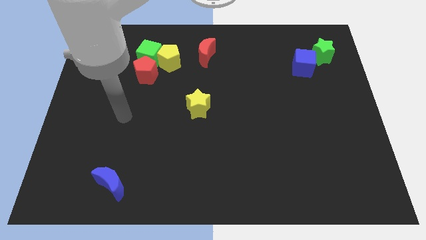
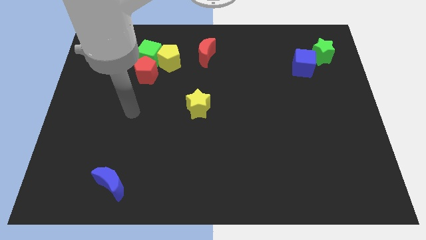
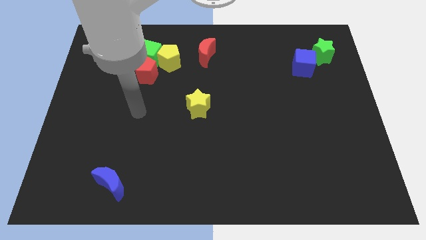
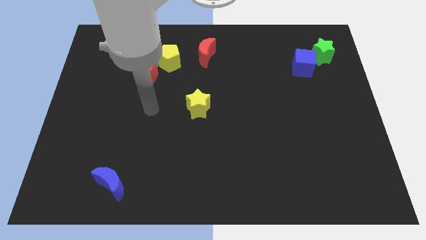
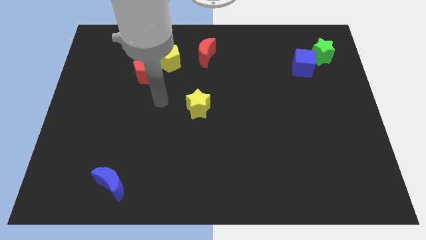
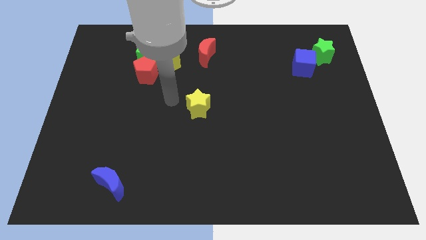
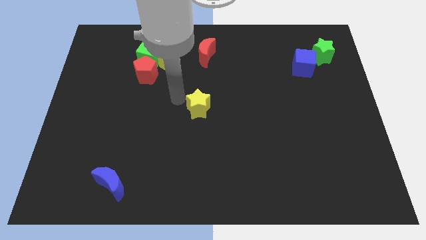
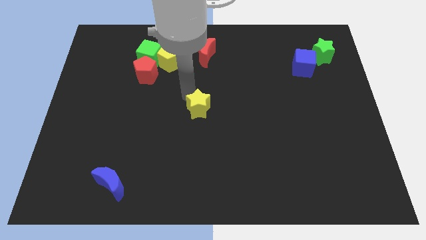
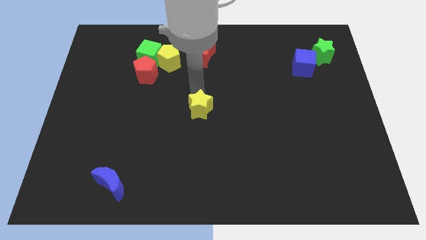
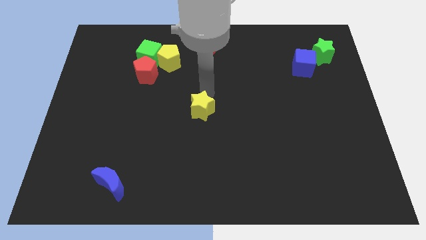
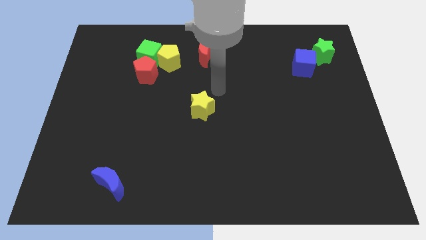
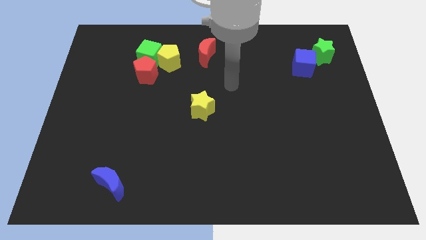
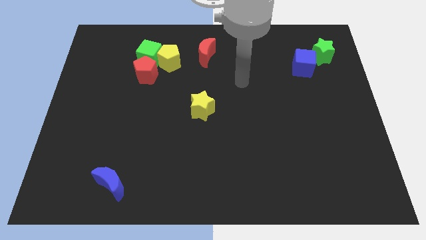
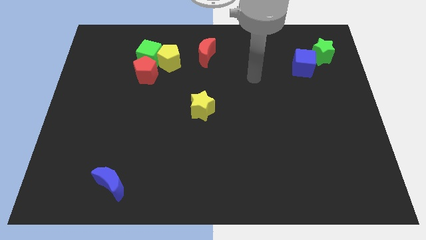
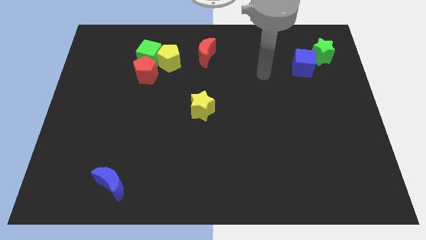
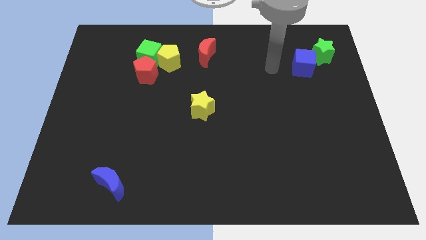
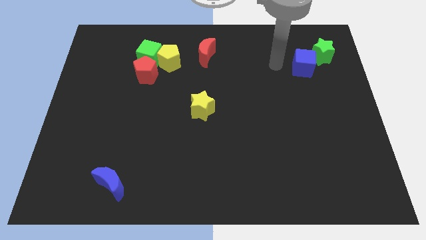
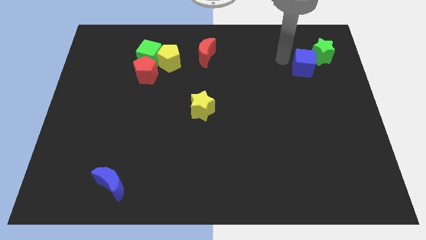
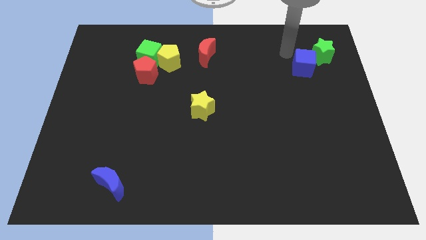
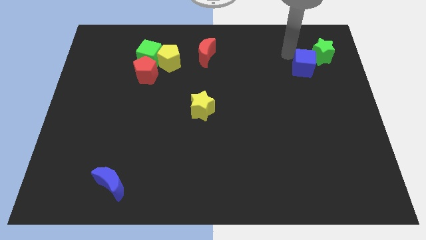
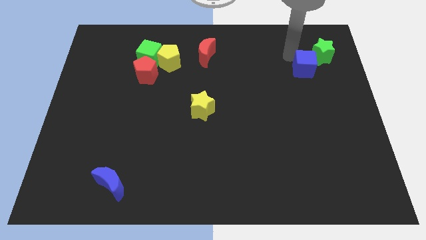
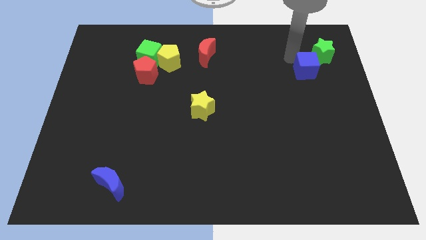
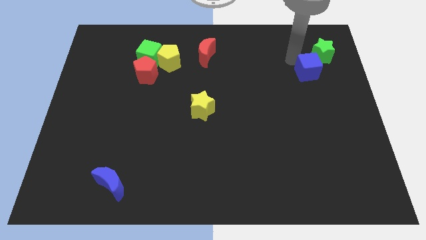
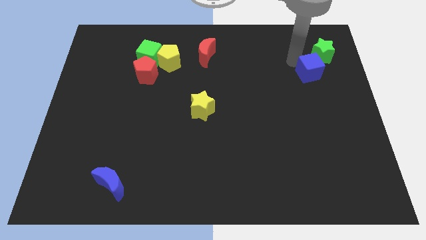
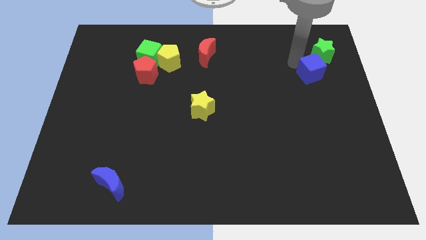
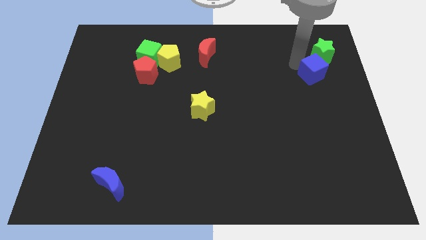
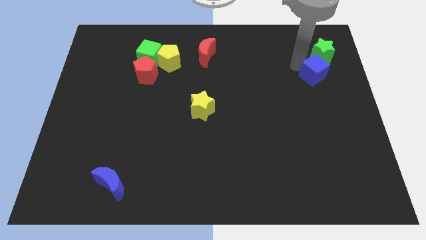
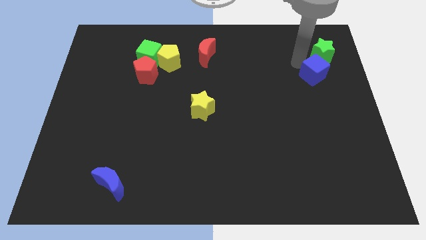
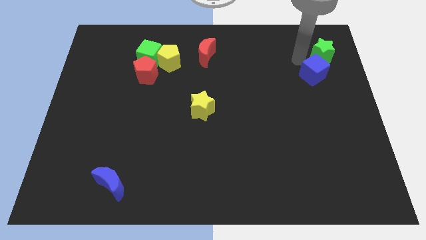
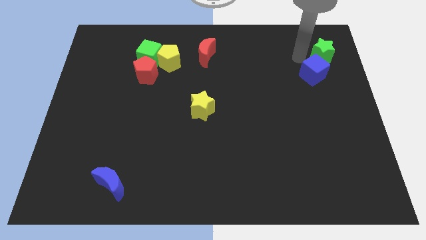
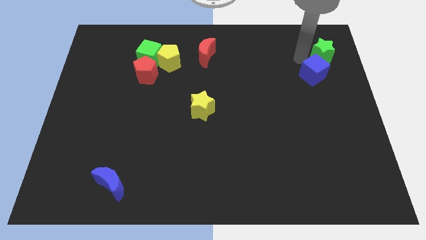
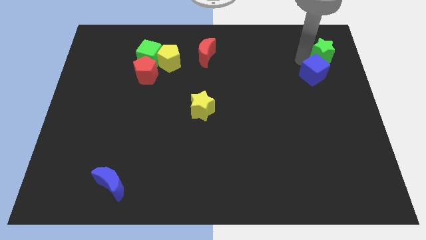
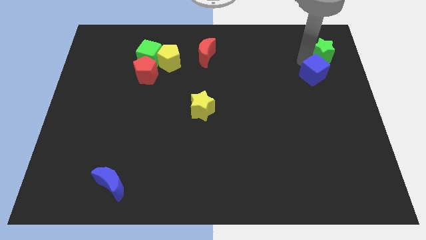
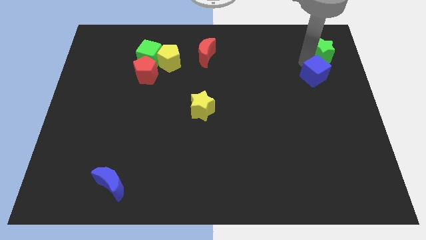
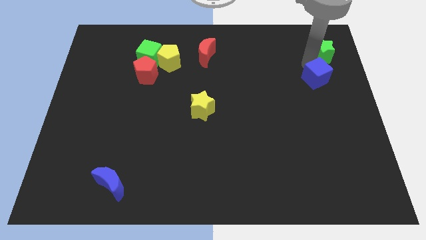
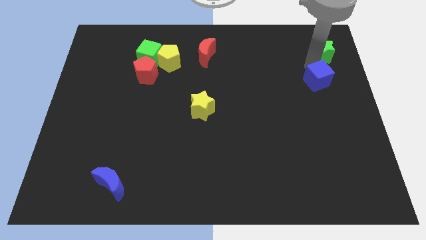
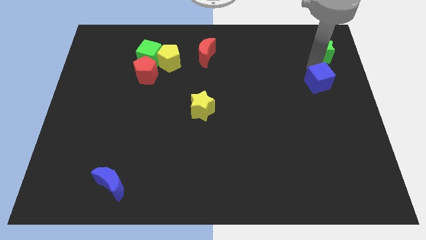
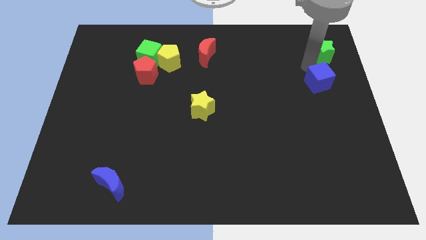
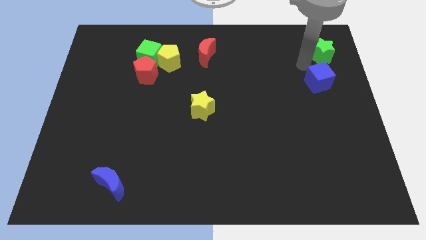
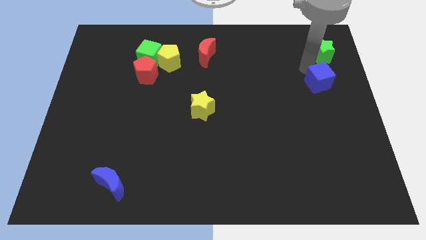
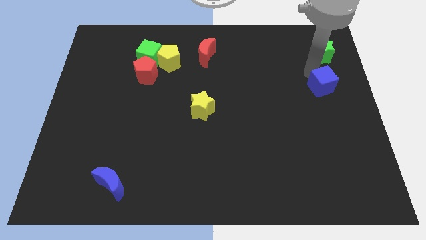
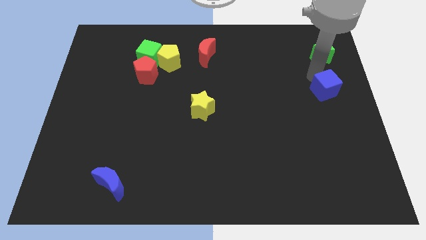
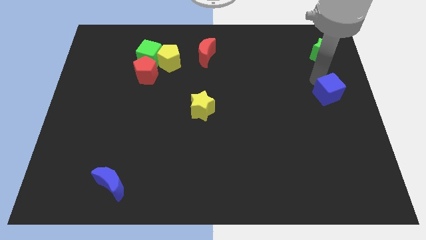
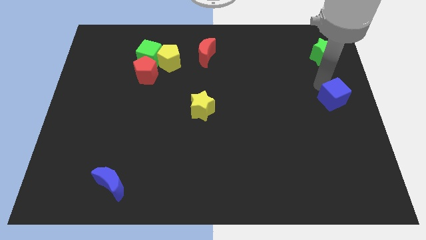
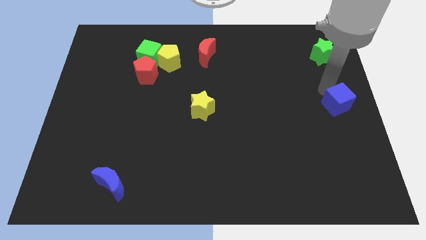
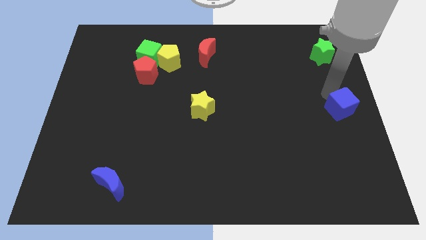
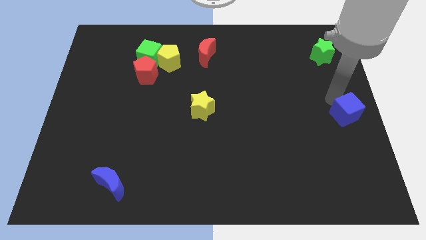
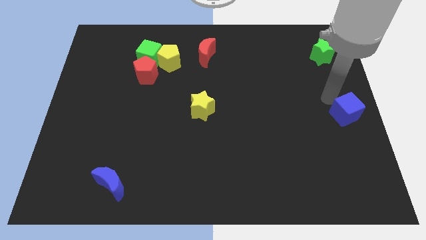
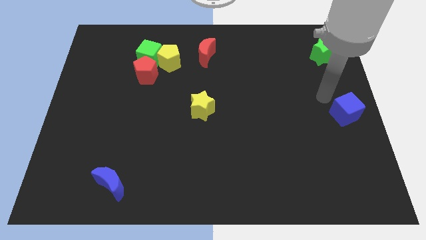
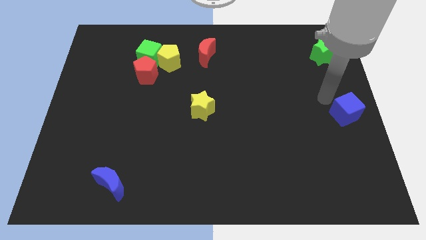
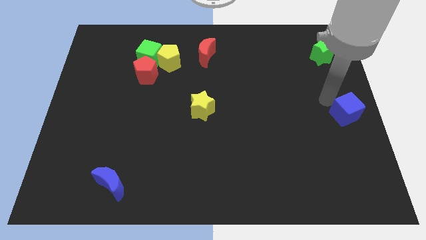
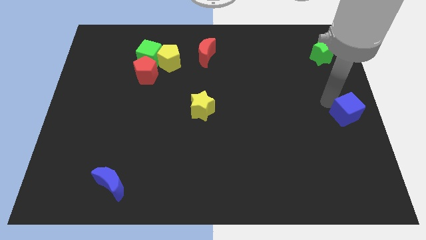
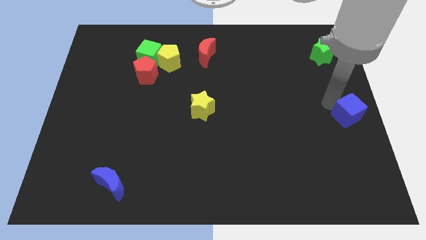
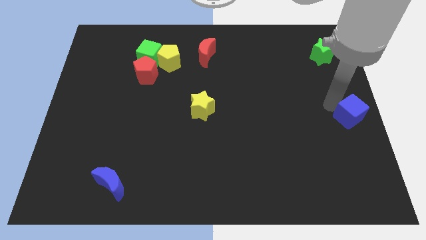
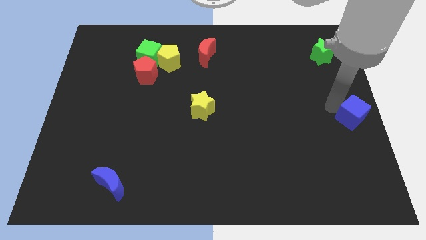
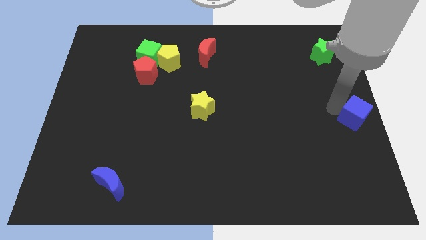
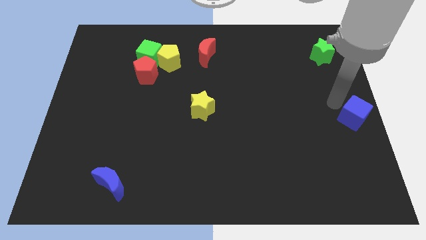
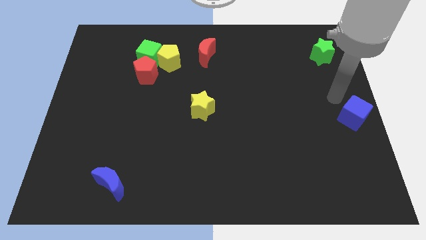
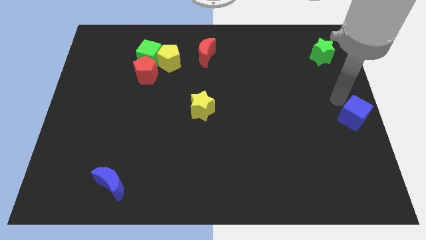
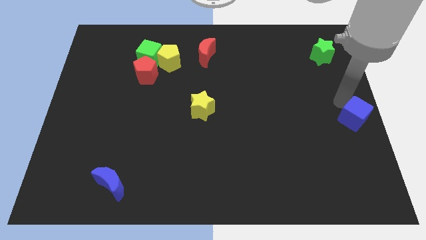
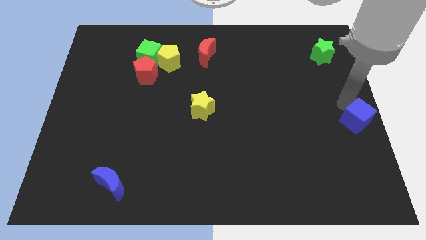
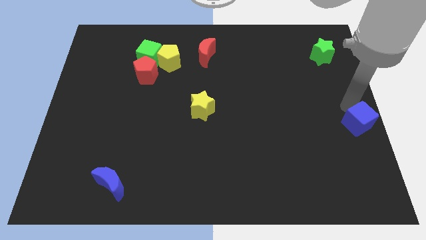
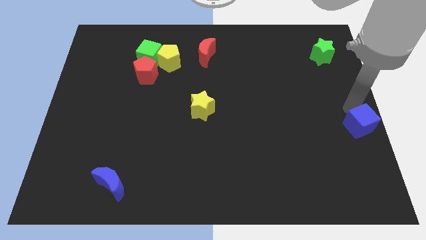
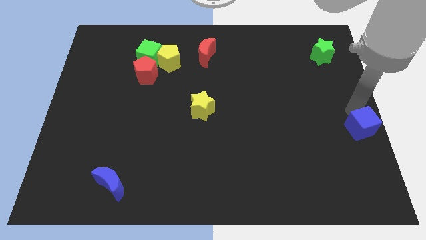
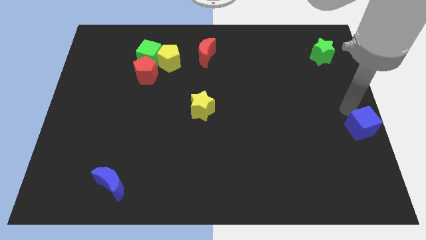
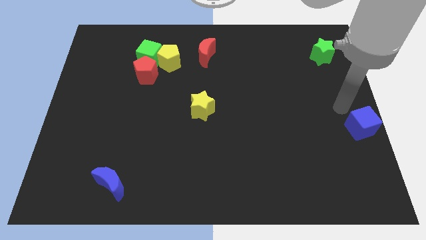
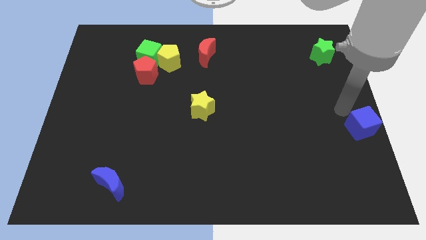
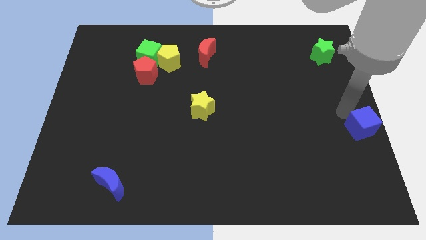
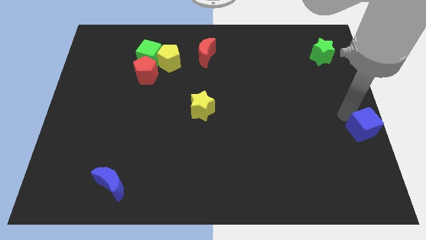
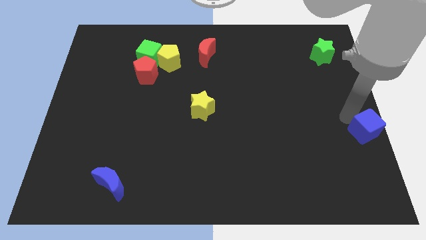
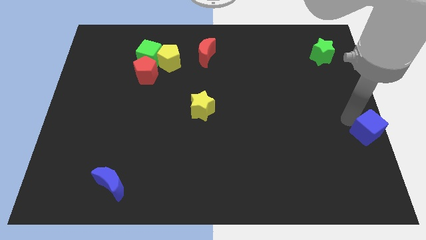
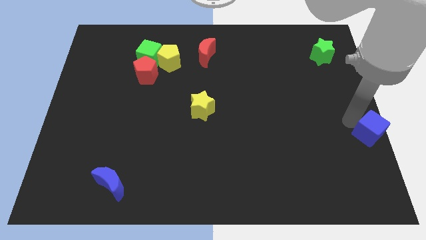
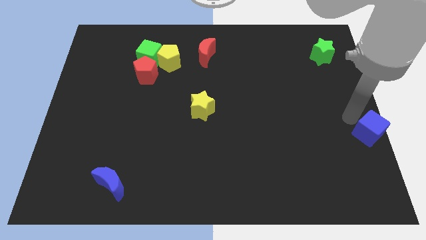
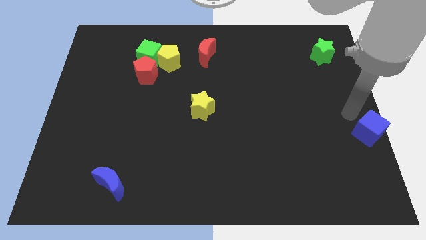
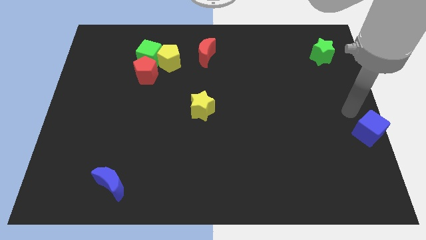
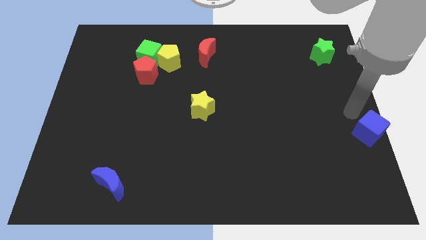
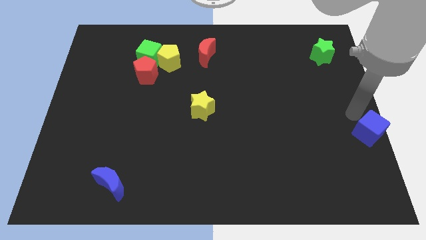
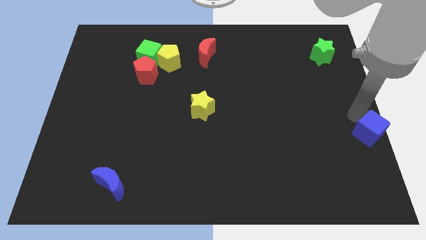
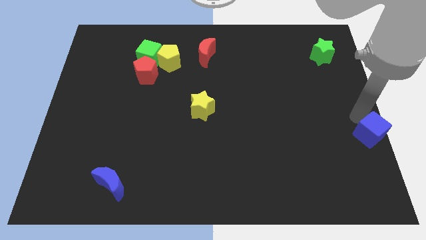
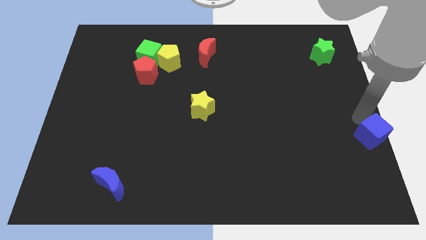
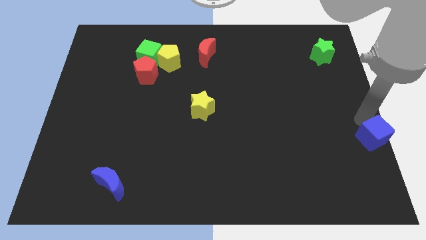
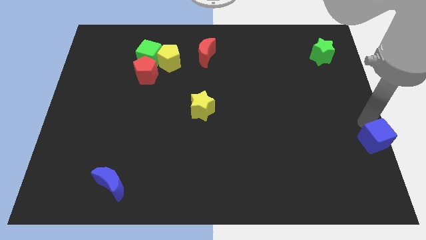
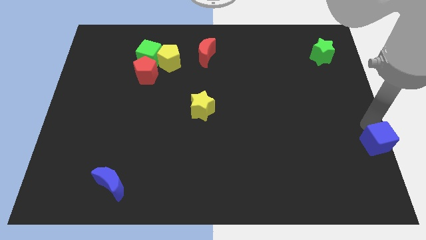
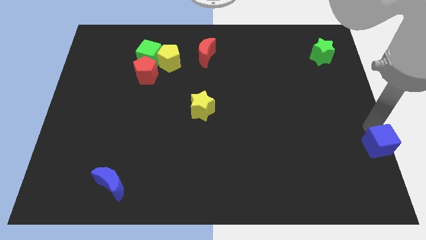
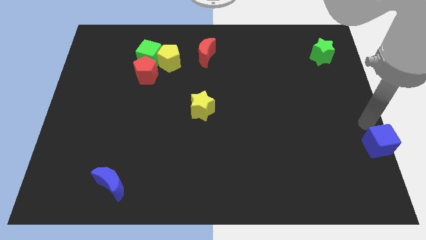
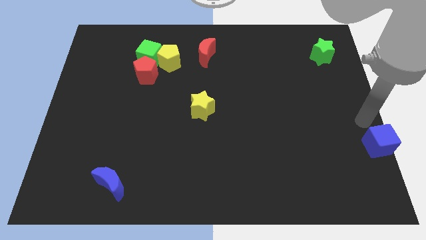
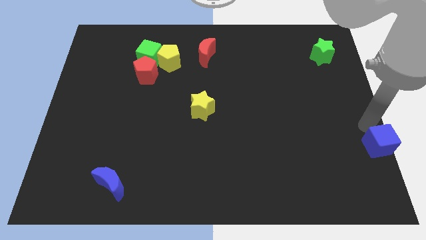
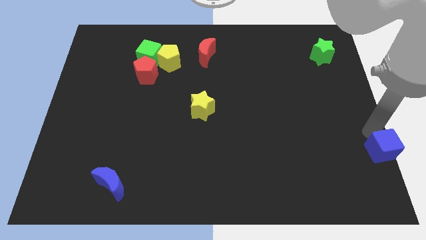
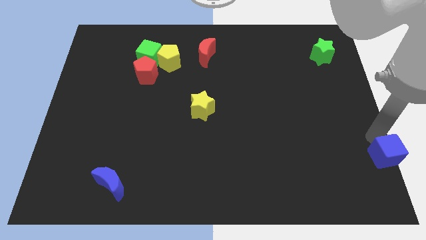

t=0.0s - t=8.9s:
move the blue cube to the bottom right corner
